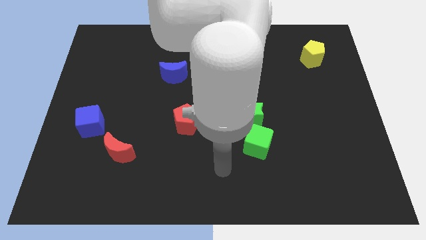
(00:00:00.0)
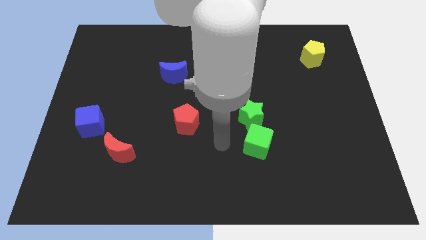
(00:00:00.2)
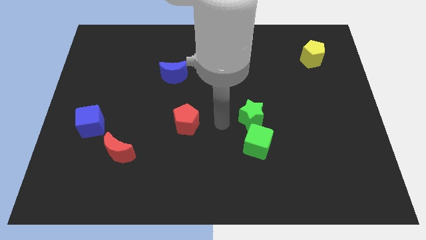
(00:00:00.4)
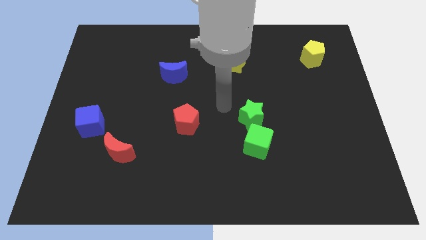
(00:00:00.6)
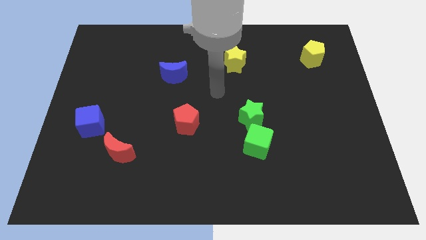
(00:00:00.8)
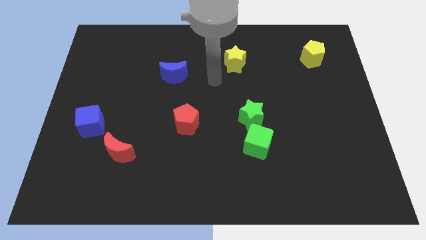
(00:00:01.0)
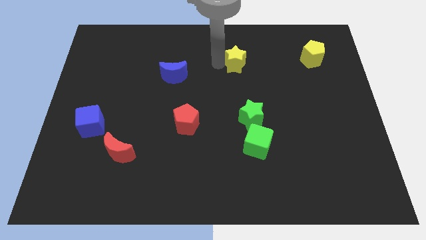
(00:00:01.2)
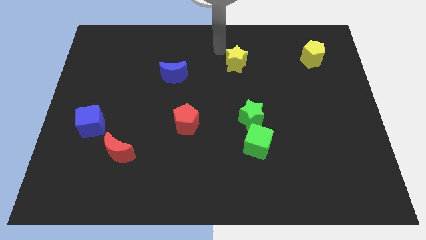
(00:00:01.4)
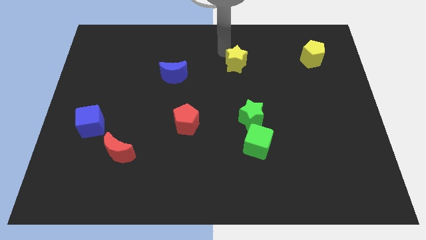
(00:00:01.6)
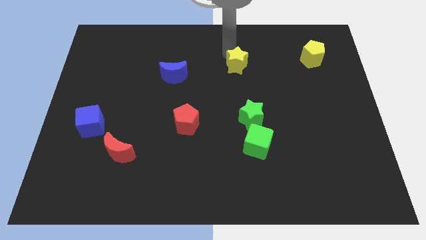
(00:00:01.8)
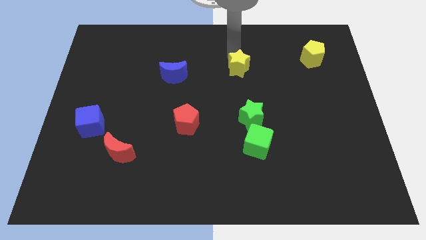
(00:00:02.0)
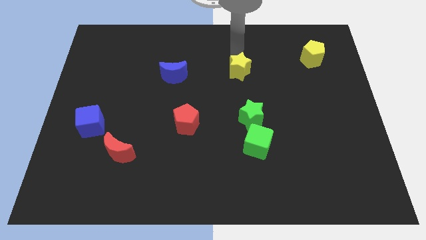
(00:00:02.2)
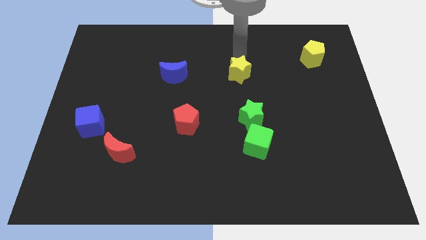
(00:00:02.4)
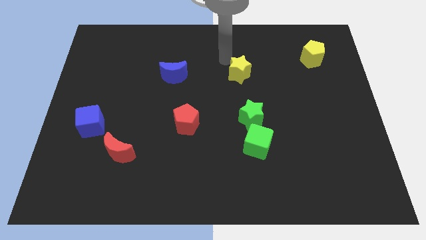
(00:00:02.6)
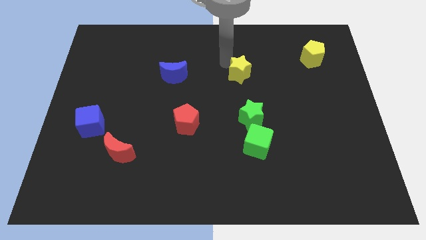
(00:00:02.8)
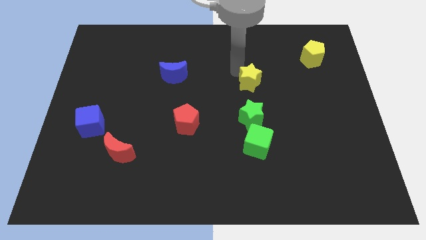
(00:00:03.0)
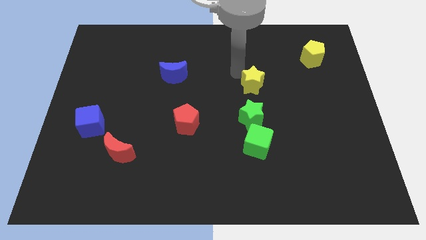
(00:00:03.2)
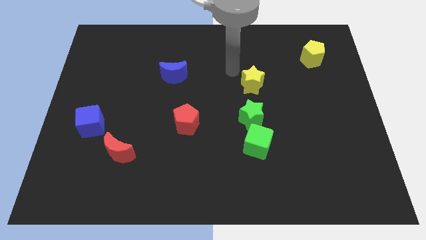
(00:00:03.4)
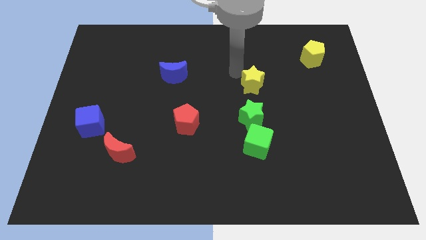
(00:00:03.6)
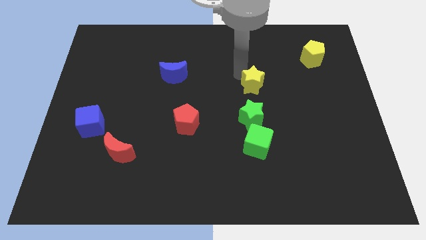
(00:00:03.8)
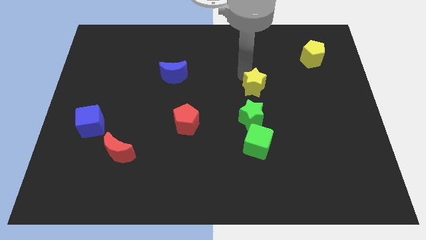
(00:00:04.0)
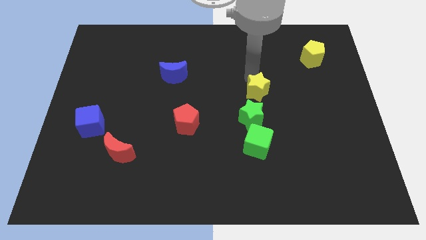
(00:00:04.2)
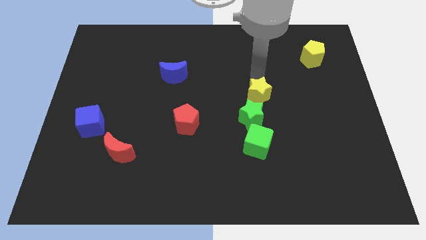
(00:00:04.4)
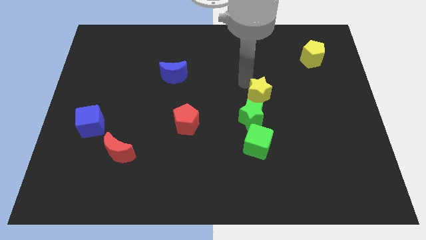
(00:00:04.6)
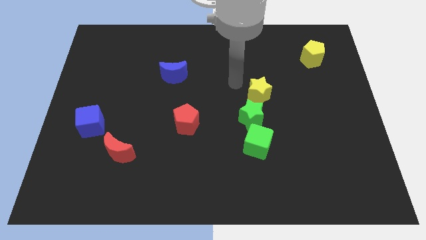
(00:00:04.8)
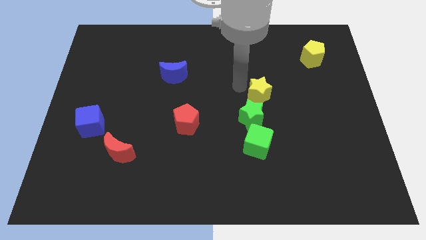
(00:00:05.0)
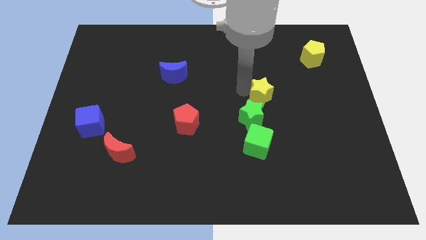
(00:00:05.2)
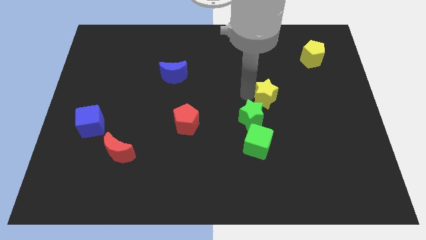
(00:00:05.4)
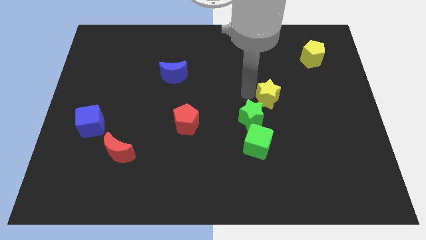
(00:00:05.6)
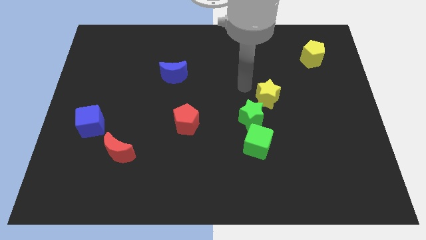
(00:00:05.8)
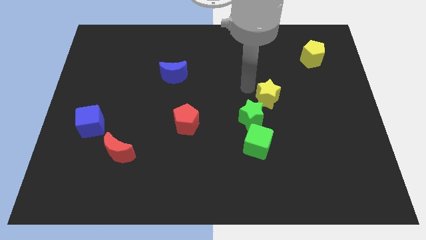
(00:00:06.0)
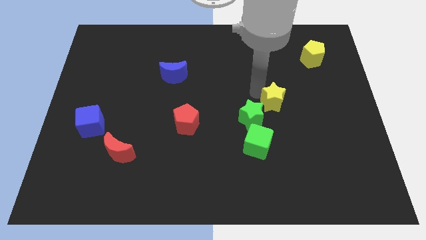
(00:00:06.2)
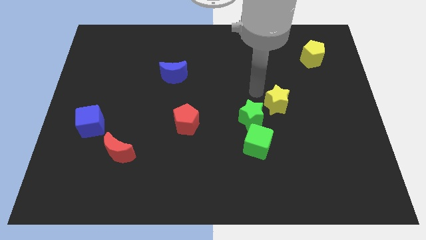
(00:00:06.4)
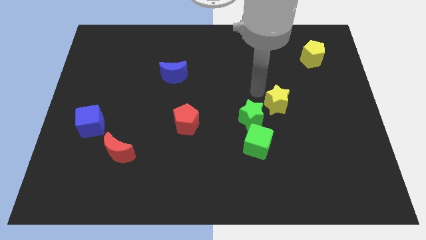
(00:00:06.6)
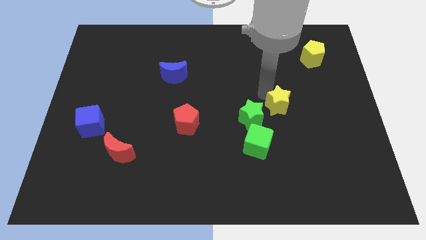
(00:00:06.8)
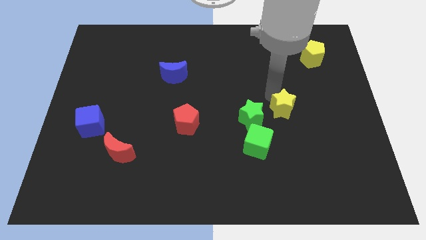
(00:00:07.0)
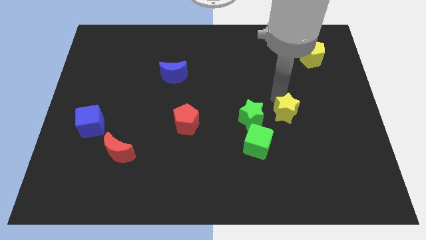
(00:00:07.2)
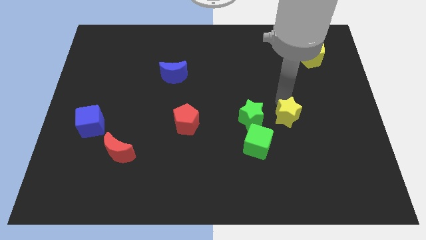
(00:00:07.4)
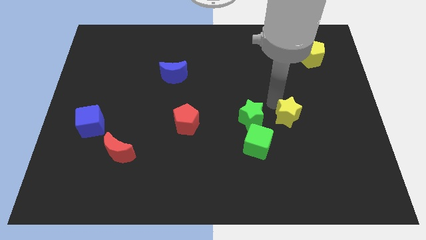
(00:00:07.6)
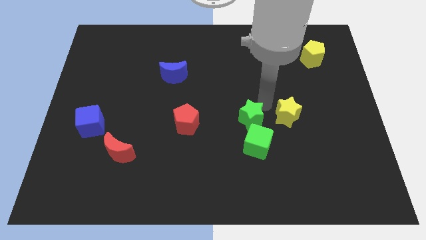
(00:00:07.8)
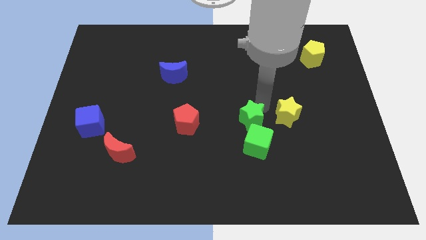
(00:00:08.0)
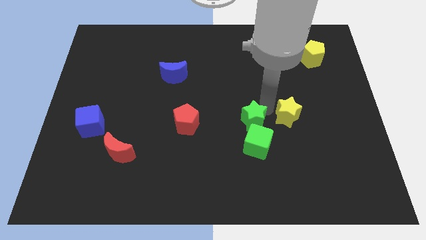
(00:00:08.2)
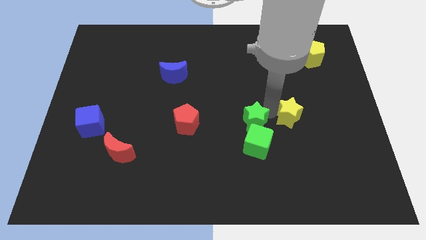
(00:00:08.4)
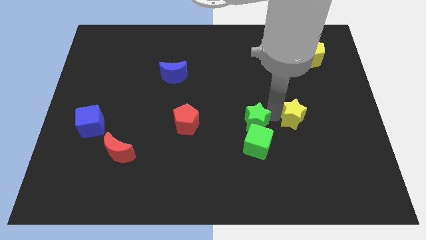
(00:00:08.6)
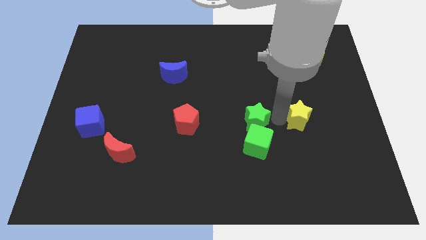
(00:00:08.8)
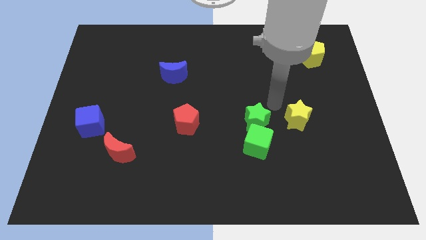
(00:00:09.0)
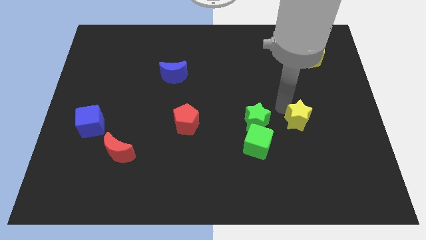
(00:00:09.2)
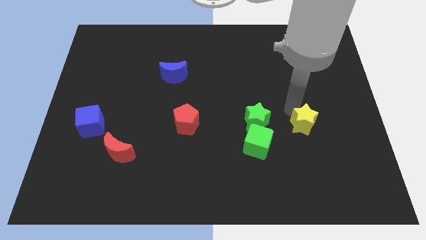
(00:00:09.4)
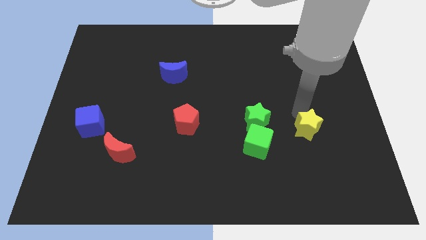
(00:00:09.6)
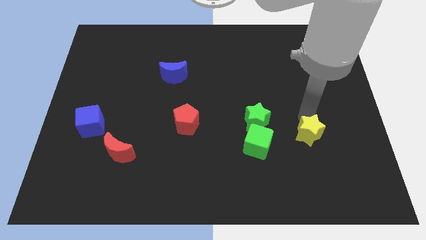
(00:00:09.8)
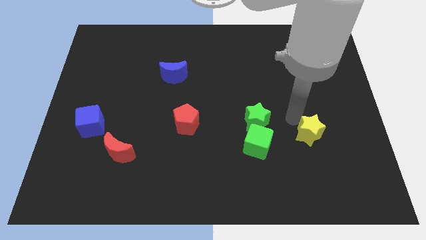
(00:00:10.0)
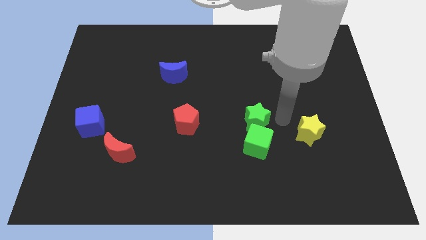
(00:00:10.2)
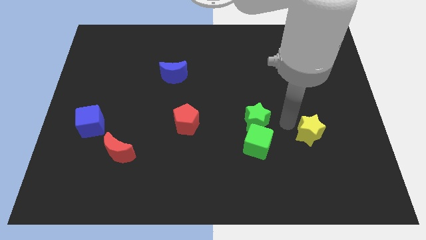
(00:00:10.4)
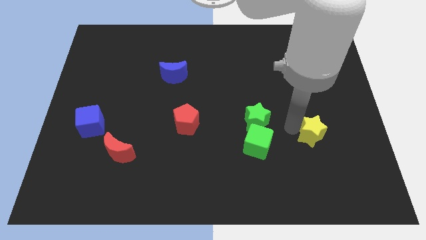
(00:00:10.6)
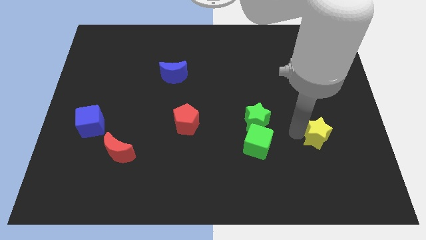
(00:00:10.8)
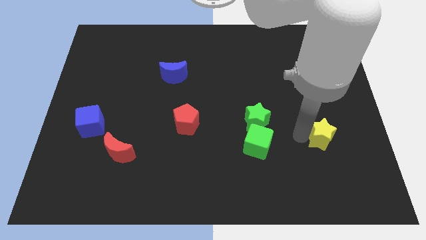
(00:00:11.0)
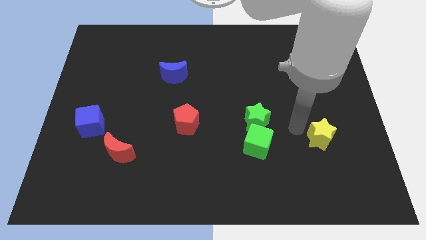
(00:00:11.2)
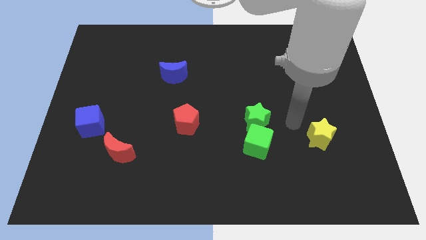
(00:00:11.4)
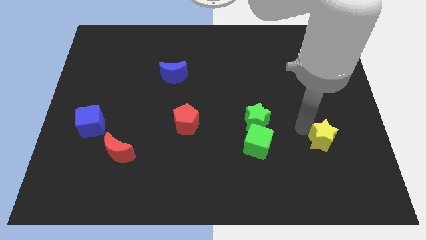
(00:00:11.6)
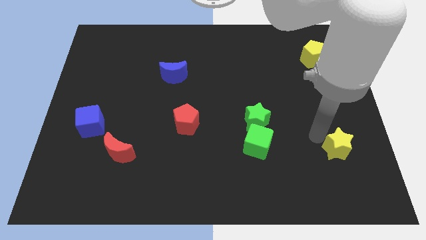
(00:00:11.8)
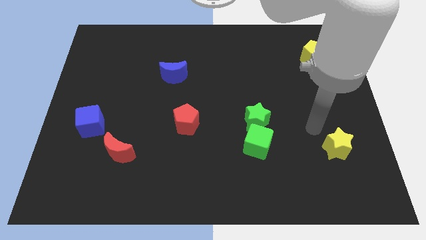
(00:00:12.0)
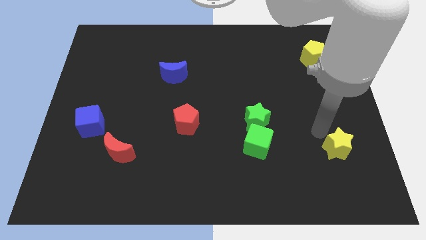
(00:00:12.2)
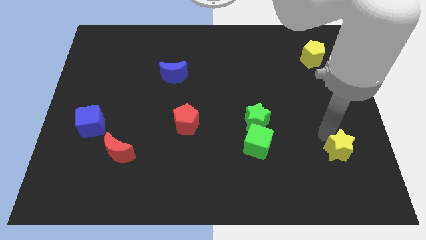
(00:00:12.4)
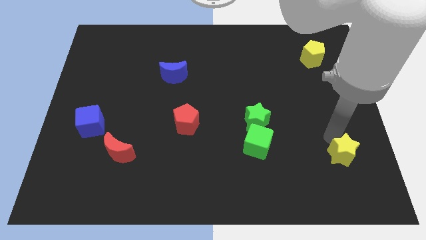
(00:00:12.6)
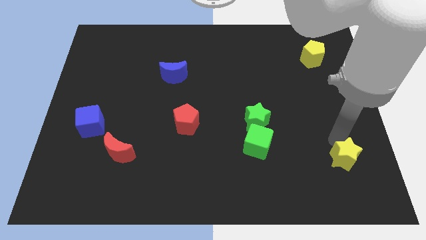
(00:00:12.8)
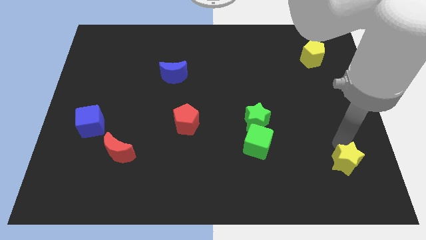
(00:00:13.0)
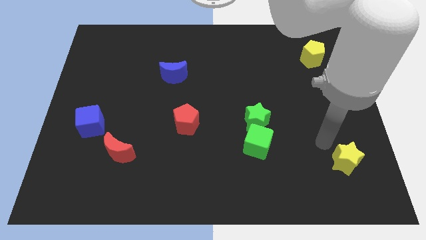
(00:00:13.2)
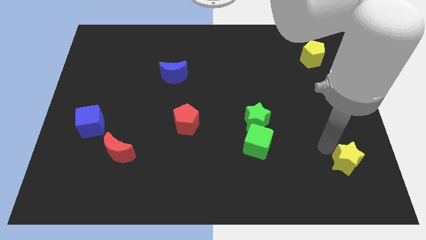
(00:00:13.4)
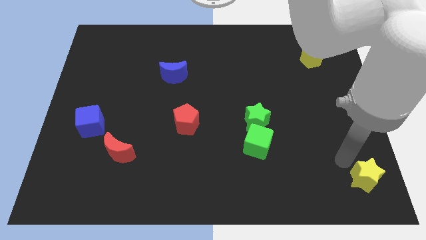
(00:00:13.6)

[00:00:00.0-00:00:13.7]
push the yellow star to the lower right corner
